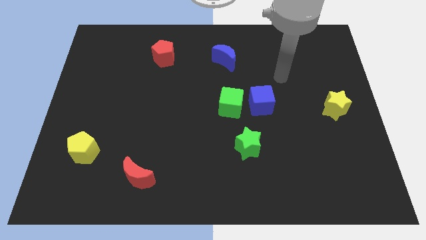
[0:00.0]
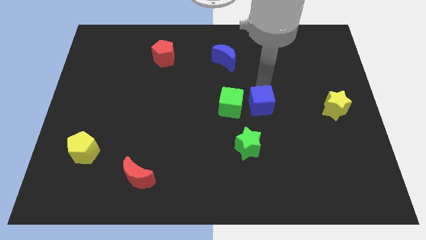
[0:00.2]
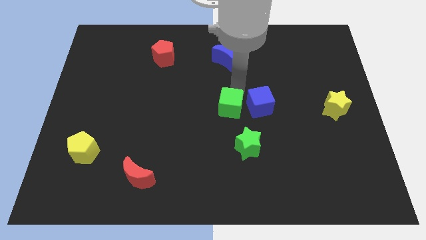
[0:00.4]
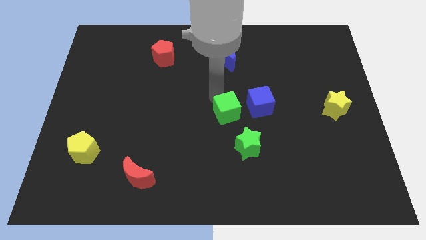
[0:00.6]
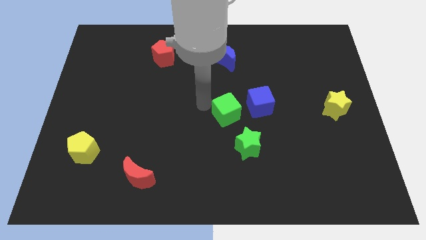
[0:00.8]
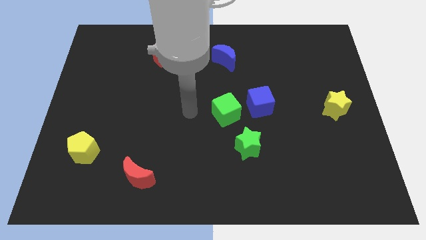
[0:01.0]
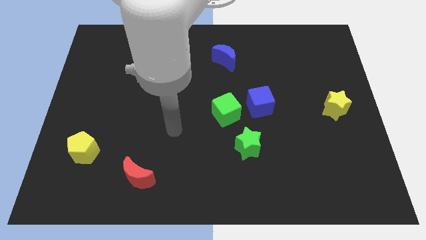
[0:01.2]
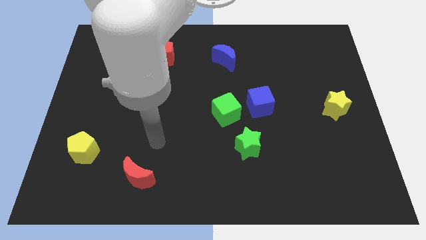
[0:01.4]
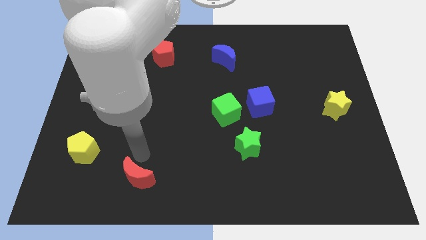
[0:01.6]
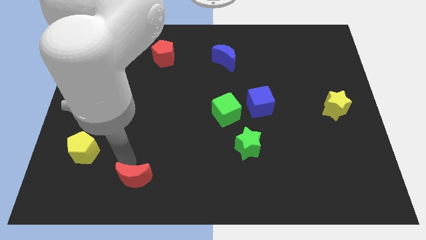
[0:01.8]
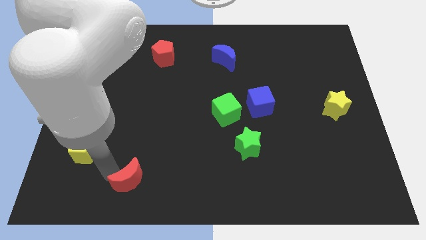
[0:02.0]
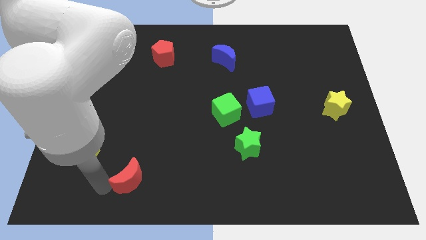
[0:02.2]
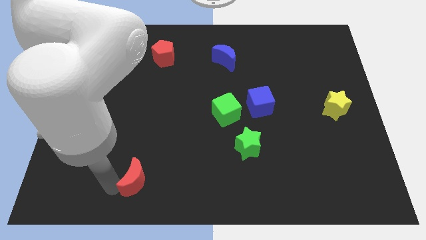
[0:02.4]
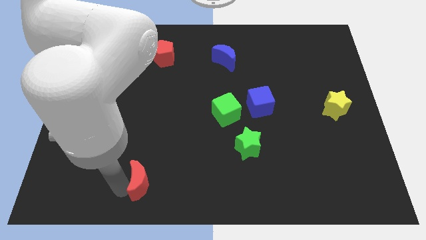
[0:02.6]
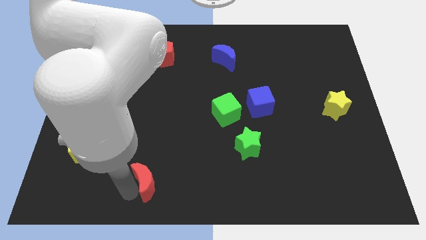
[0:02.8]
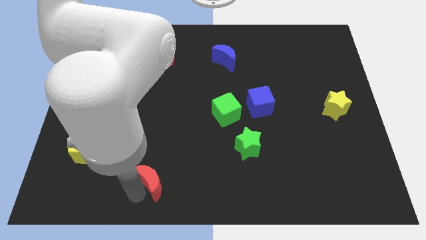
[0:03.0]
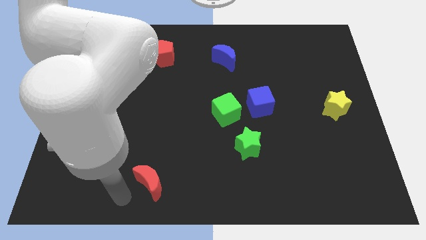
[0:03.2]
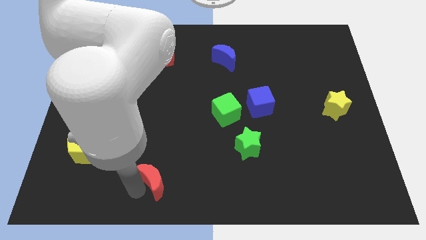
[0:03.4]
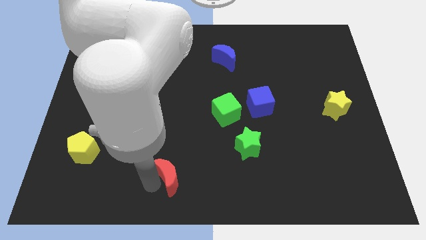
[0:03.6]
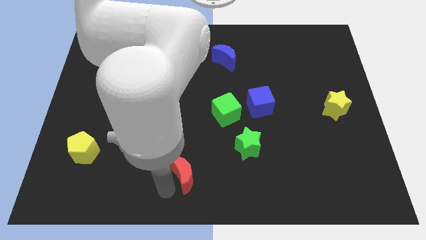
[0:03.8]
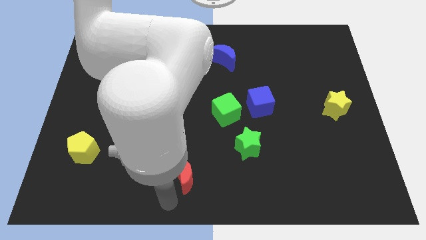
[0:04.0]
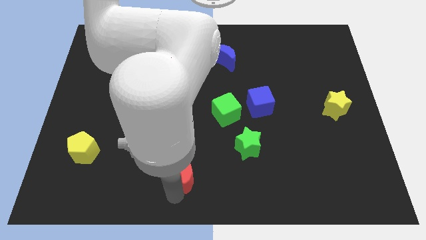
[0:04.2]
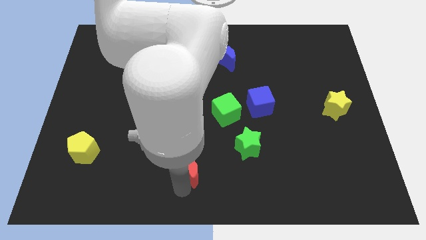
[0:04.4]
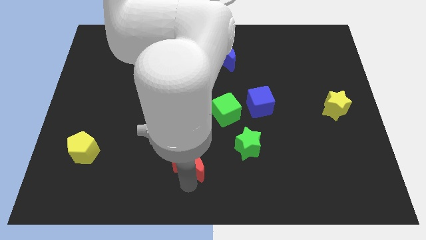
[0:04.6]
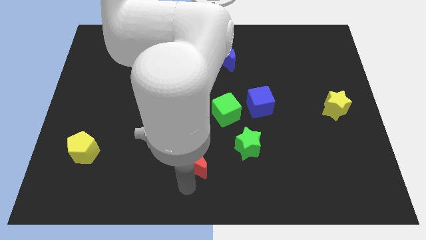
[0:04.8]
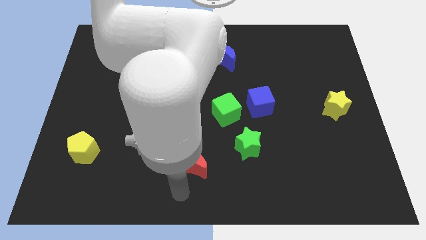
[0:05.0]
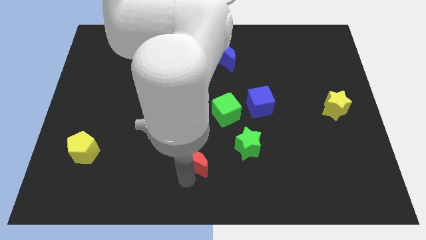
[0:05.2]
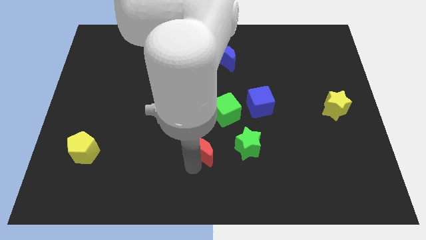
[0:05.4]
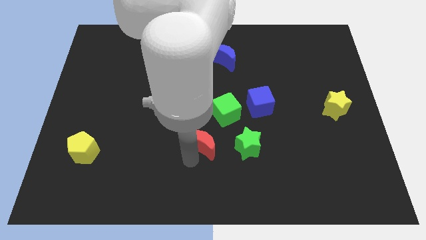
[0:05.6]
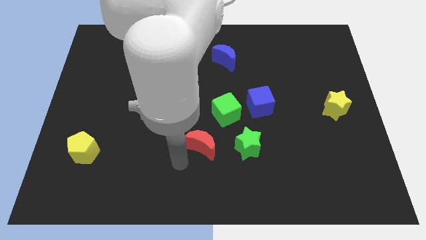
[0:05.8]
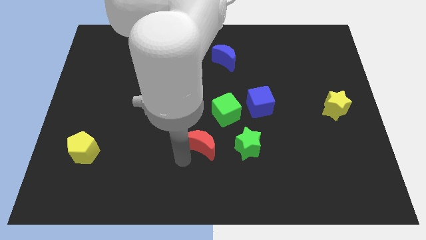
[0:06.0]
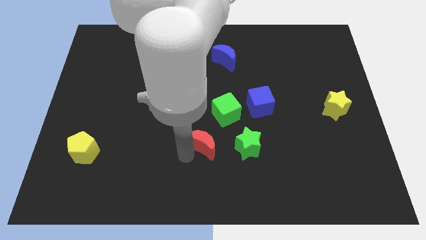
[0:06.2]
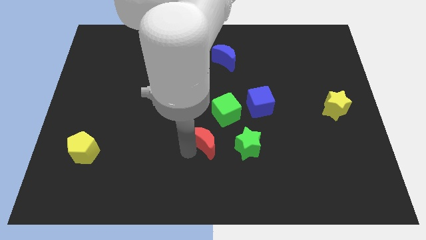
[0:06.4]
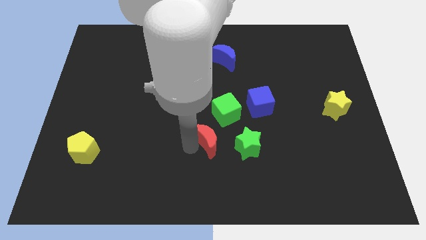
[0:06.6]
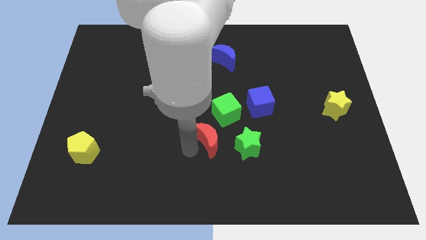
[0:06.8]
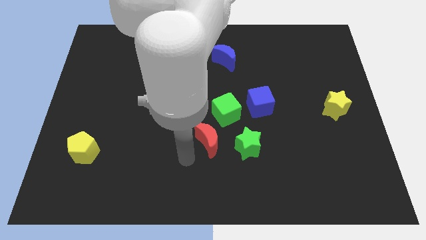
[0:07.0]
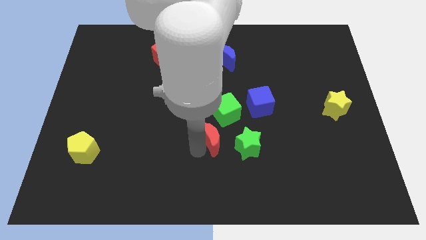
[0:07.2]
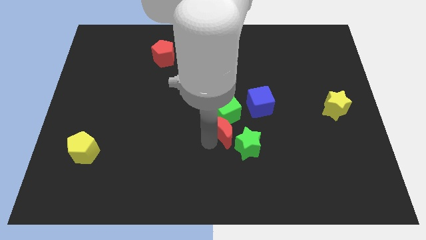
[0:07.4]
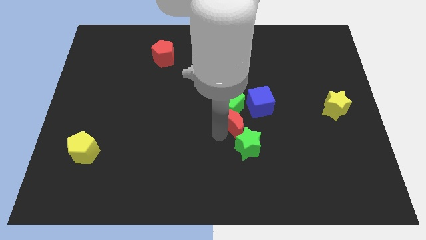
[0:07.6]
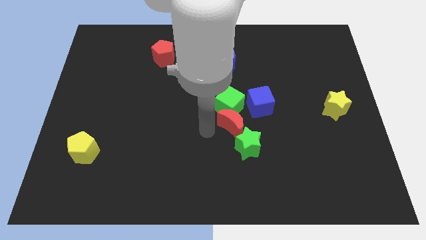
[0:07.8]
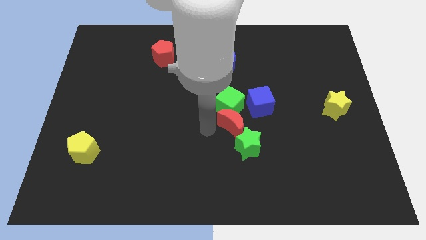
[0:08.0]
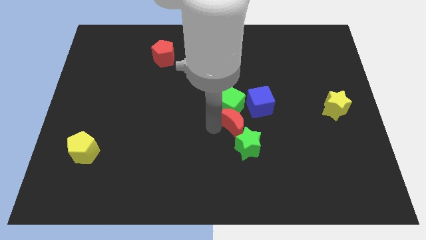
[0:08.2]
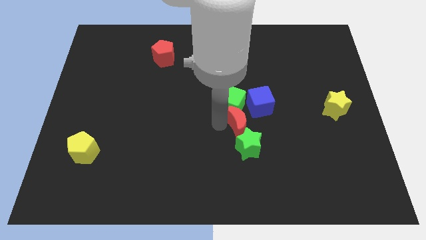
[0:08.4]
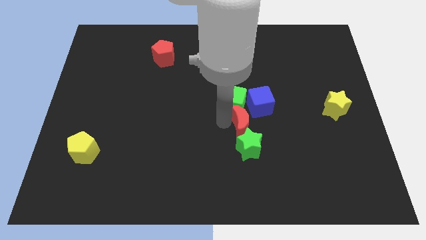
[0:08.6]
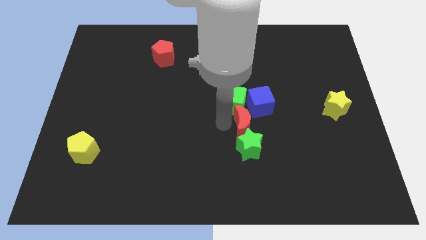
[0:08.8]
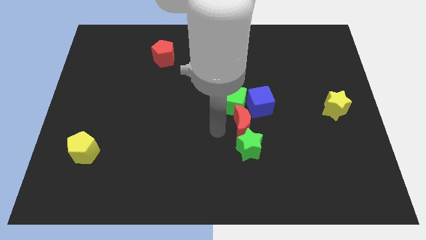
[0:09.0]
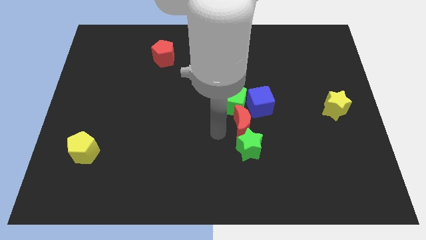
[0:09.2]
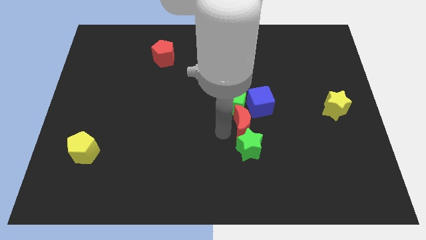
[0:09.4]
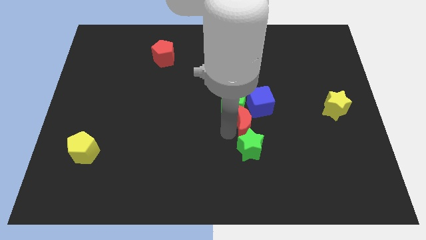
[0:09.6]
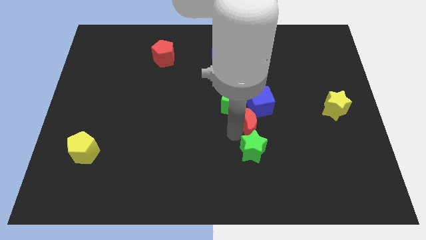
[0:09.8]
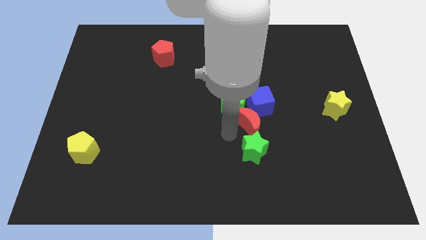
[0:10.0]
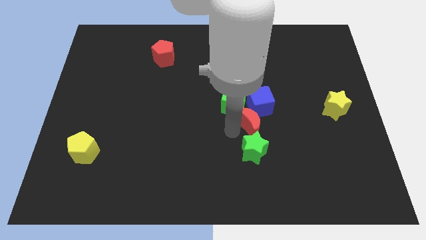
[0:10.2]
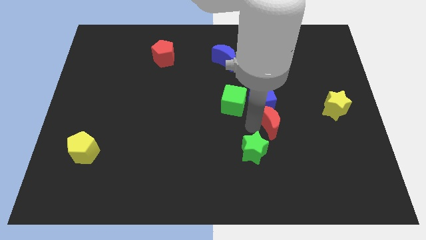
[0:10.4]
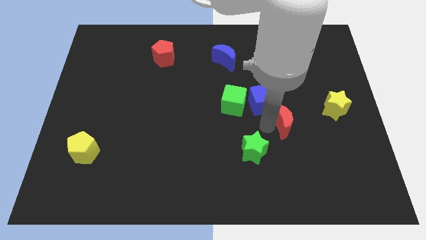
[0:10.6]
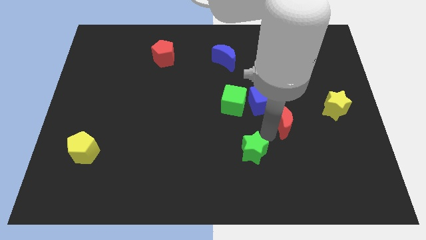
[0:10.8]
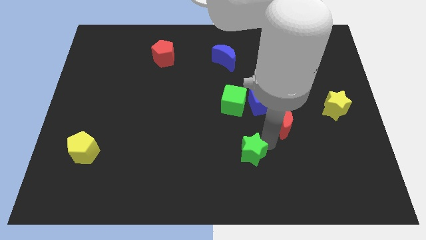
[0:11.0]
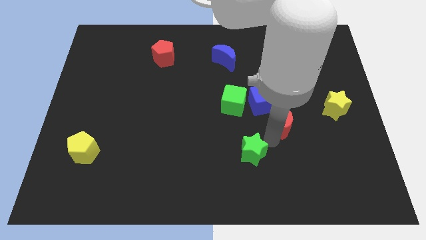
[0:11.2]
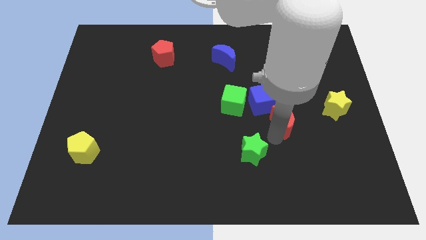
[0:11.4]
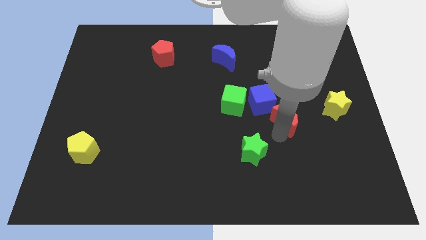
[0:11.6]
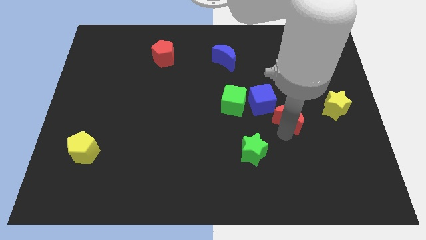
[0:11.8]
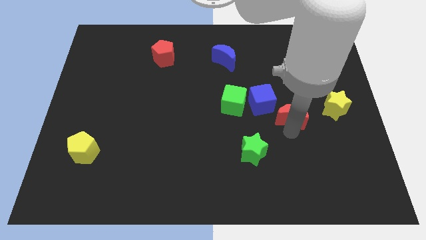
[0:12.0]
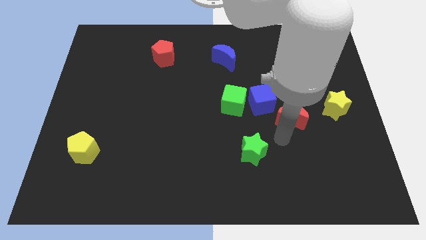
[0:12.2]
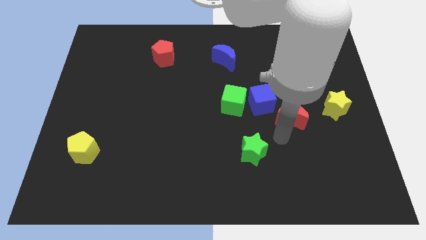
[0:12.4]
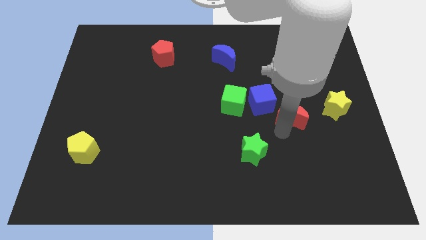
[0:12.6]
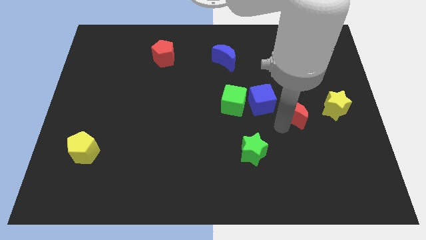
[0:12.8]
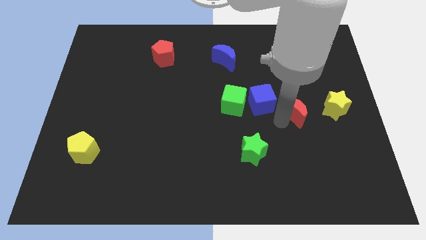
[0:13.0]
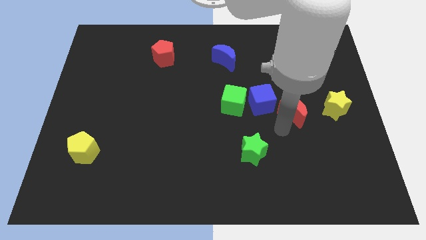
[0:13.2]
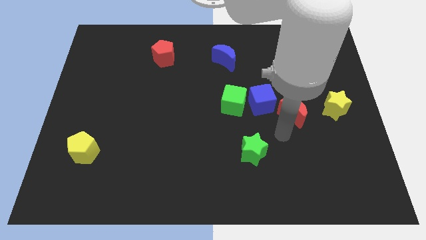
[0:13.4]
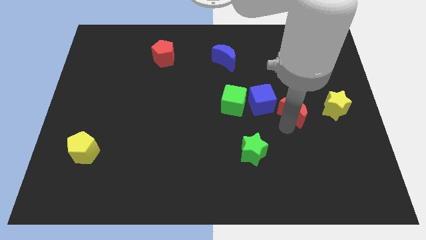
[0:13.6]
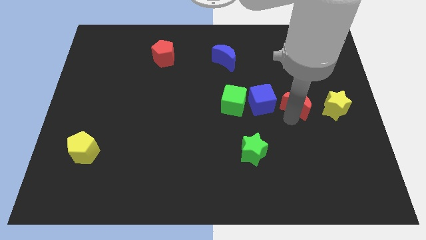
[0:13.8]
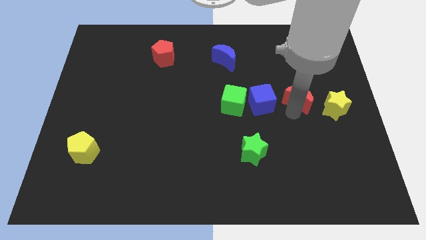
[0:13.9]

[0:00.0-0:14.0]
push the red moon diagonally up and to the left of the yellow star

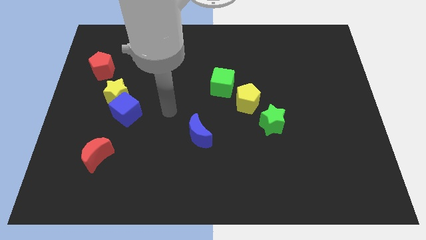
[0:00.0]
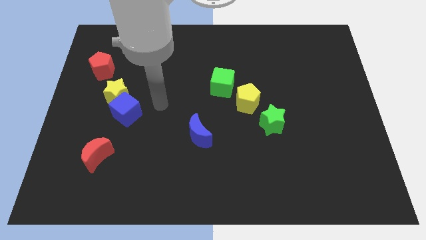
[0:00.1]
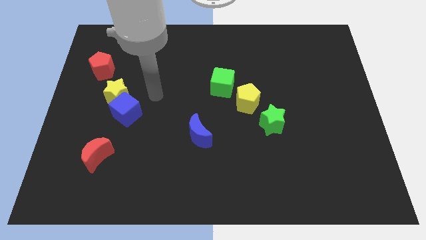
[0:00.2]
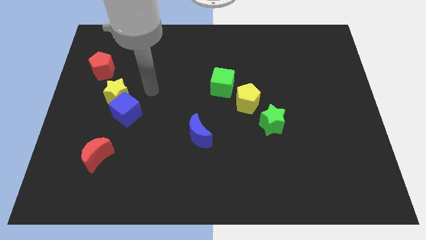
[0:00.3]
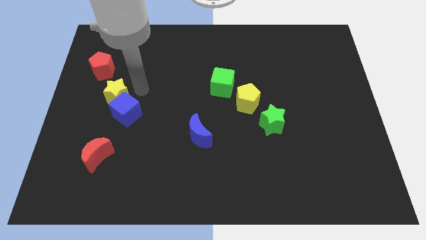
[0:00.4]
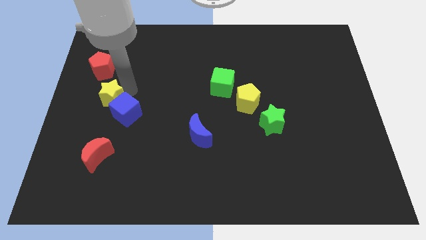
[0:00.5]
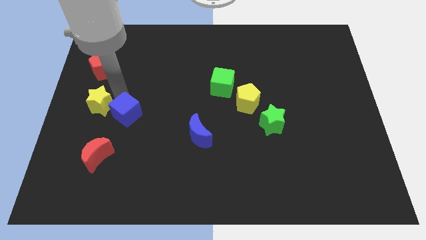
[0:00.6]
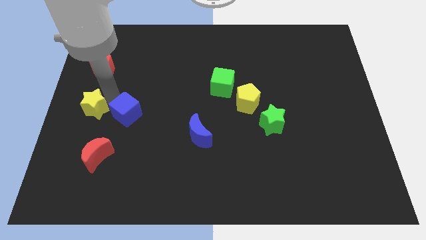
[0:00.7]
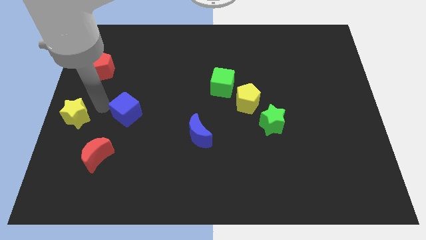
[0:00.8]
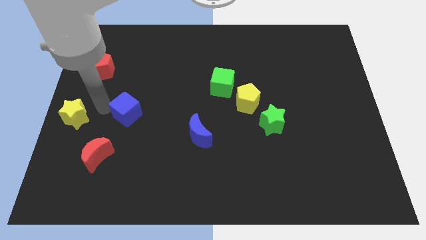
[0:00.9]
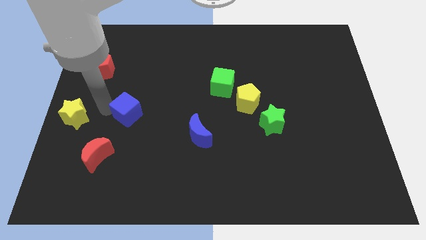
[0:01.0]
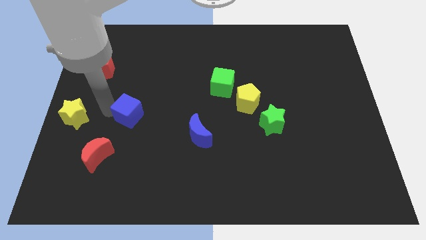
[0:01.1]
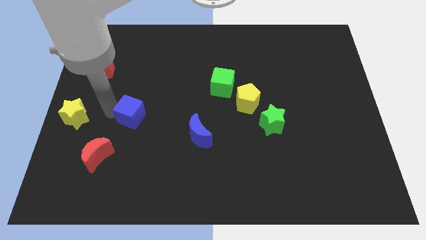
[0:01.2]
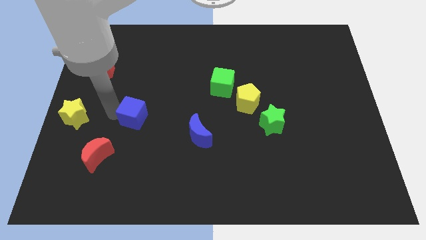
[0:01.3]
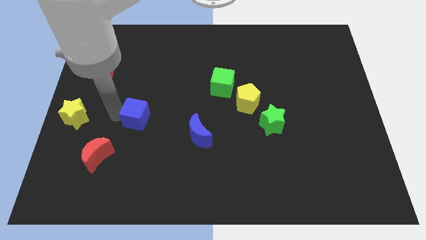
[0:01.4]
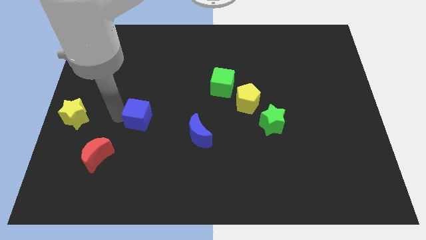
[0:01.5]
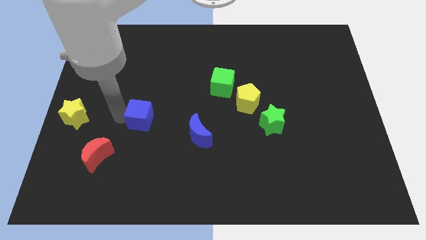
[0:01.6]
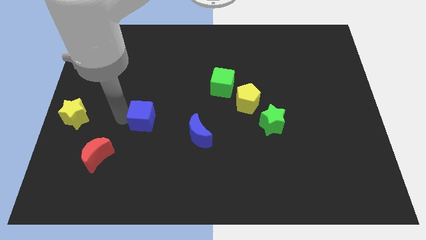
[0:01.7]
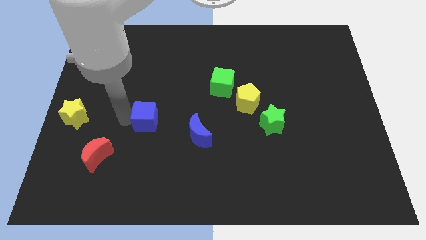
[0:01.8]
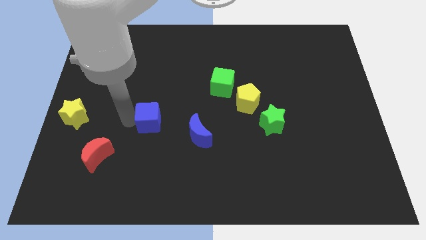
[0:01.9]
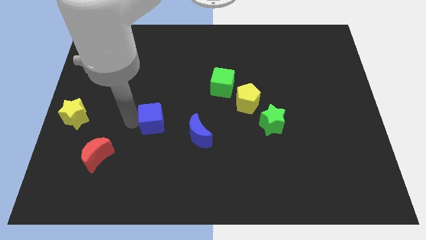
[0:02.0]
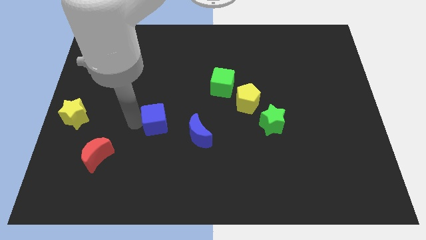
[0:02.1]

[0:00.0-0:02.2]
put the blue cube to the top left side of the blue moon
